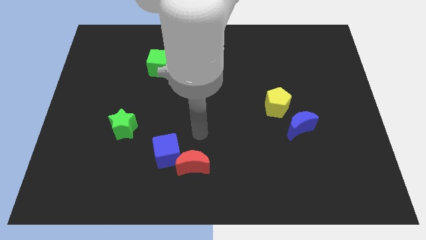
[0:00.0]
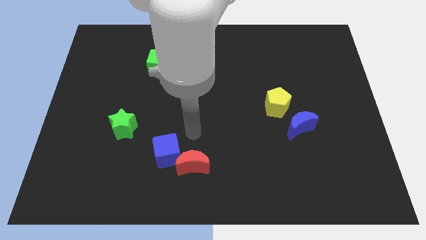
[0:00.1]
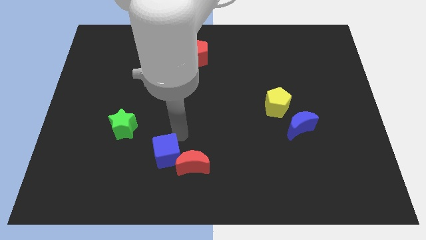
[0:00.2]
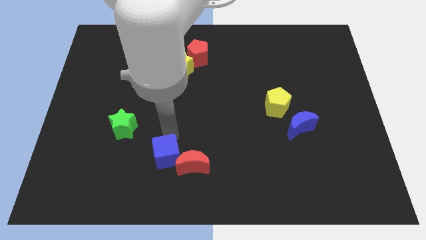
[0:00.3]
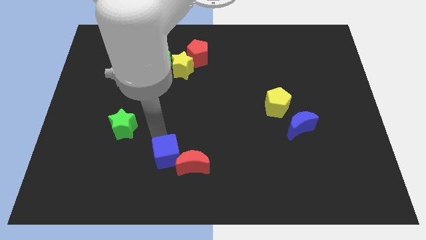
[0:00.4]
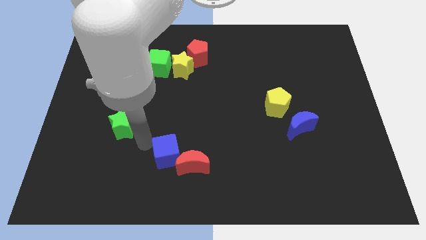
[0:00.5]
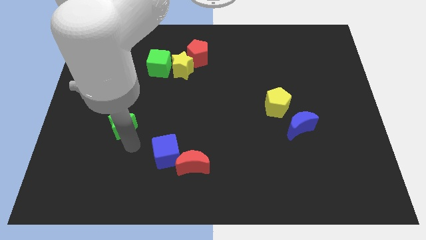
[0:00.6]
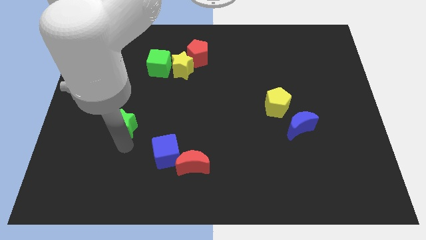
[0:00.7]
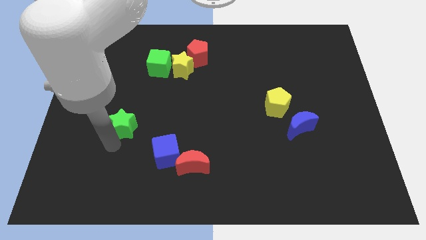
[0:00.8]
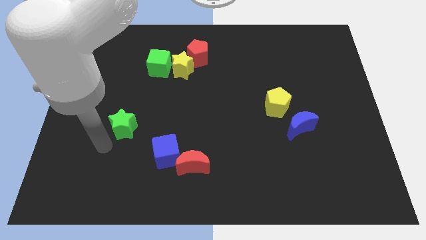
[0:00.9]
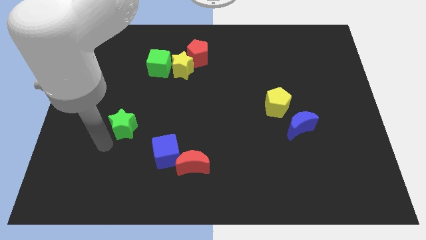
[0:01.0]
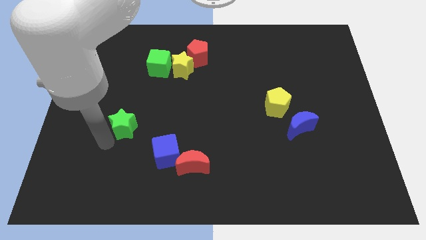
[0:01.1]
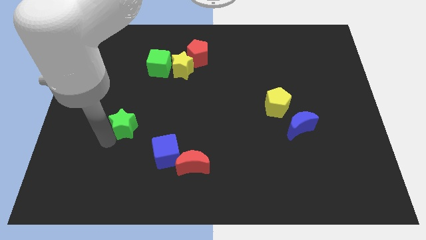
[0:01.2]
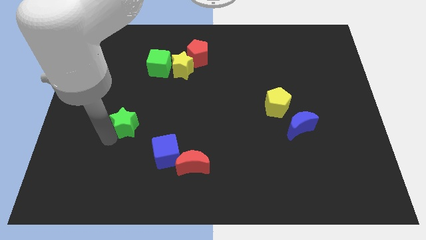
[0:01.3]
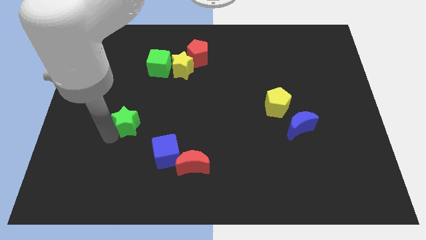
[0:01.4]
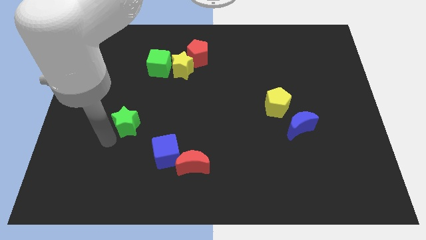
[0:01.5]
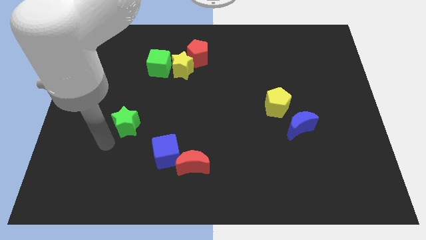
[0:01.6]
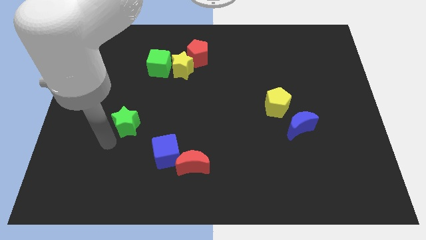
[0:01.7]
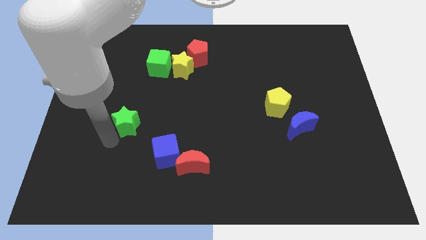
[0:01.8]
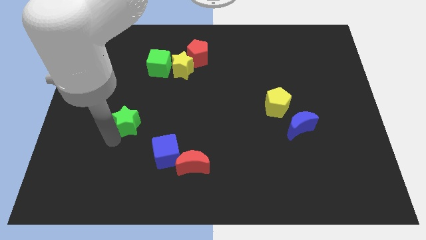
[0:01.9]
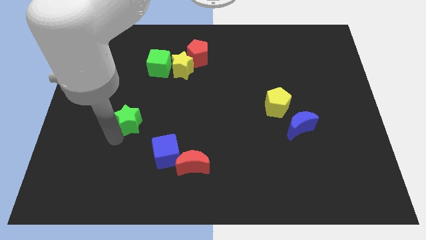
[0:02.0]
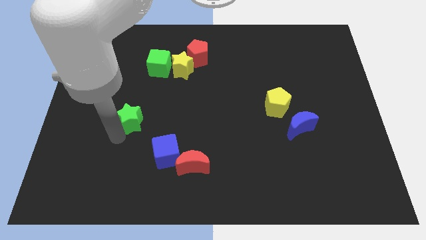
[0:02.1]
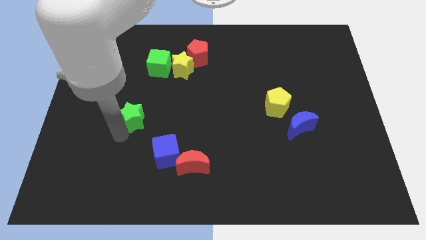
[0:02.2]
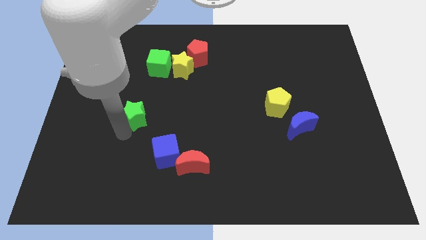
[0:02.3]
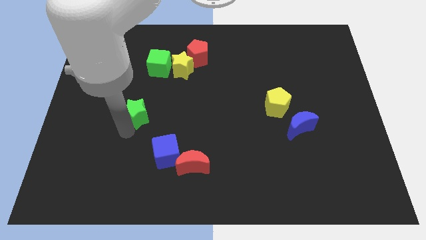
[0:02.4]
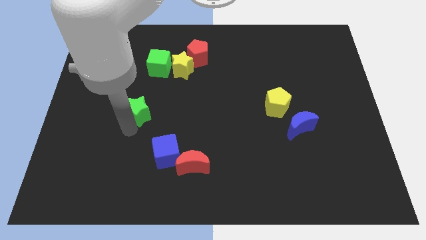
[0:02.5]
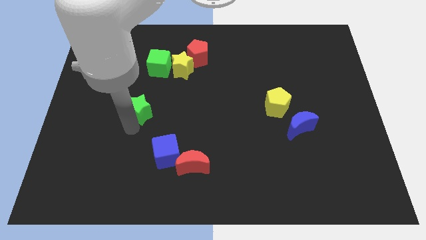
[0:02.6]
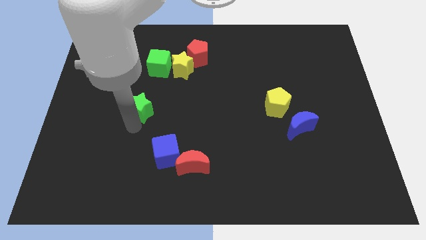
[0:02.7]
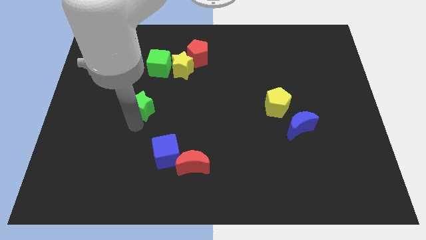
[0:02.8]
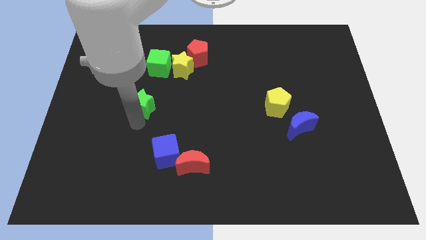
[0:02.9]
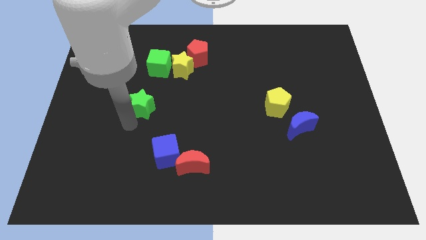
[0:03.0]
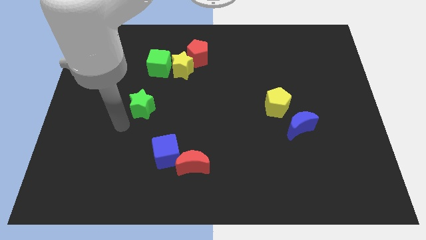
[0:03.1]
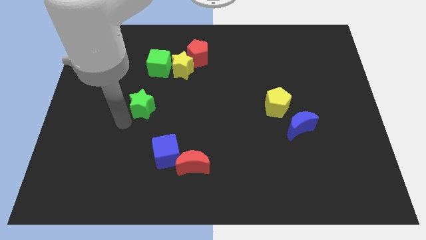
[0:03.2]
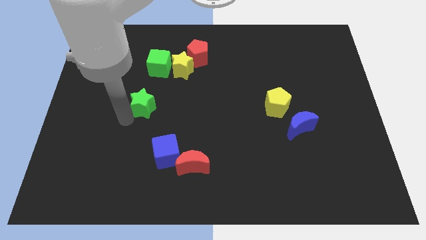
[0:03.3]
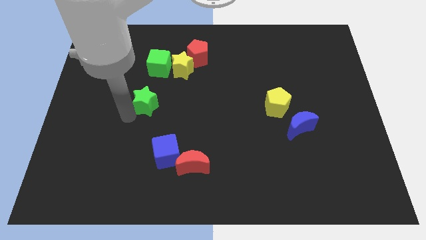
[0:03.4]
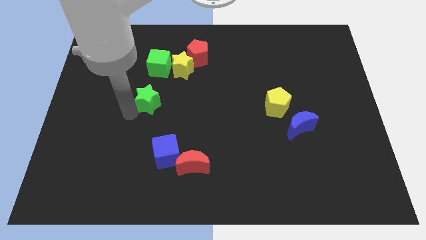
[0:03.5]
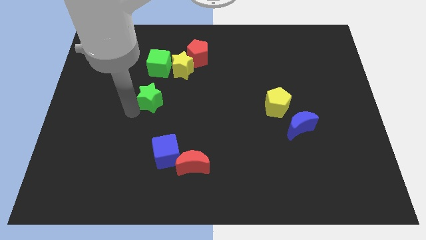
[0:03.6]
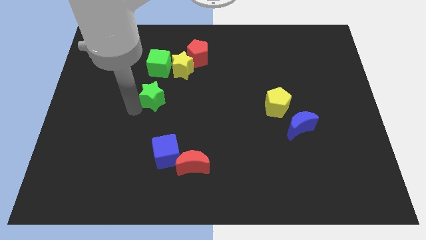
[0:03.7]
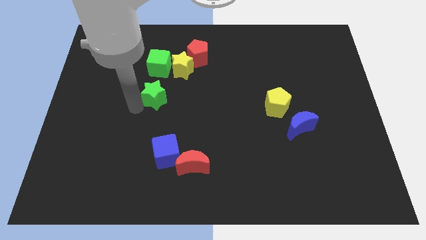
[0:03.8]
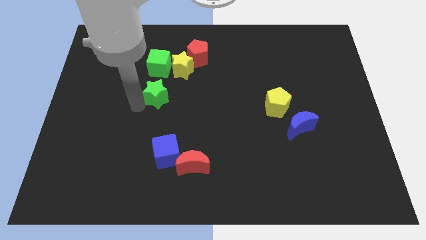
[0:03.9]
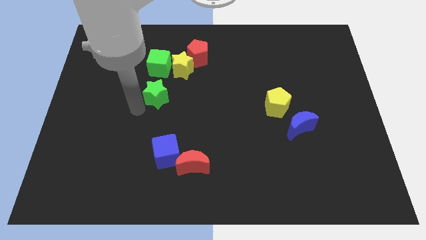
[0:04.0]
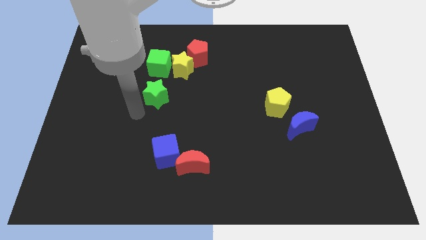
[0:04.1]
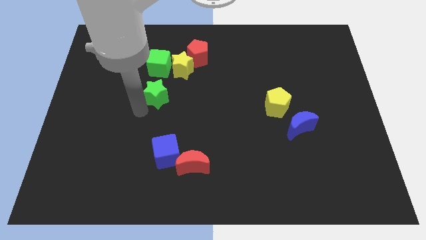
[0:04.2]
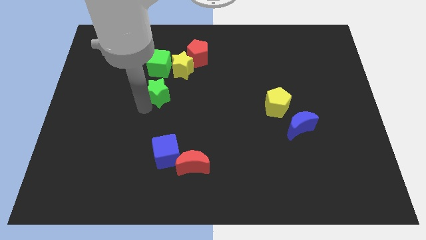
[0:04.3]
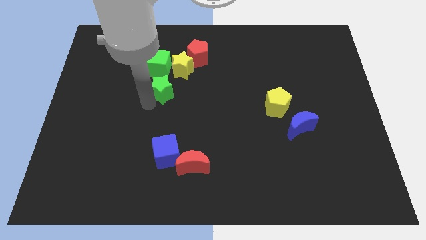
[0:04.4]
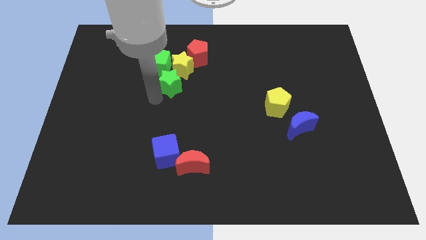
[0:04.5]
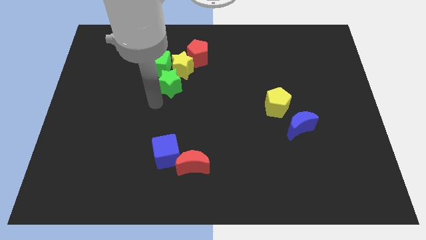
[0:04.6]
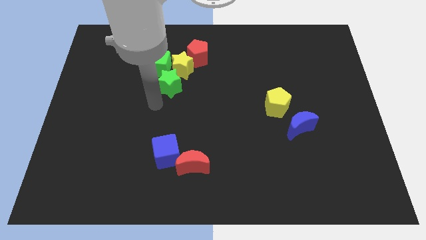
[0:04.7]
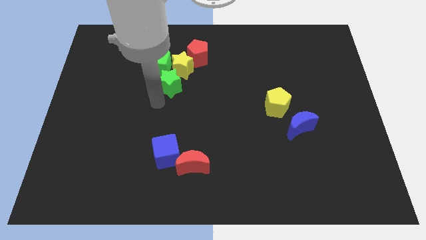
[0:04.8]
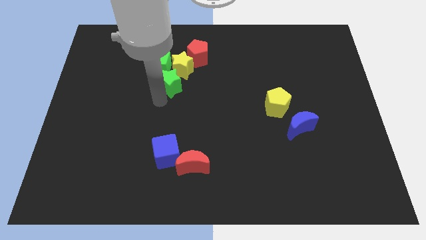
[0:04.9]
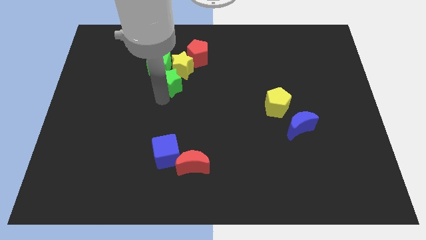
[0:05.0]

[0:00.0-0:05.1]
slide the green star next to the yellow star

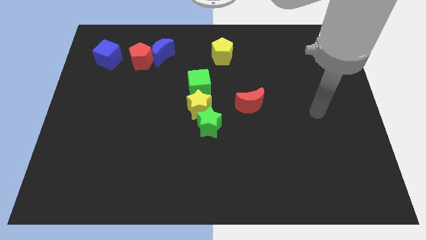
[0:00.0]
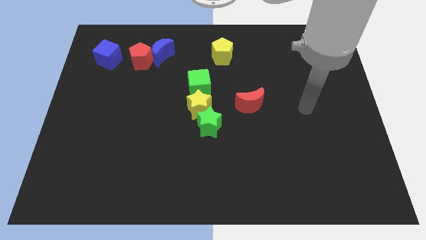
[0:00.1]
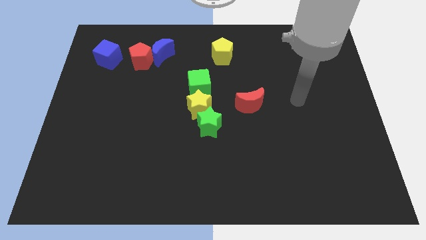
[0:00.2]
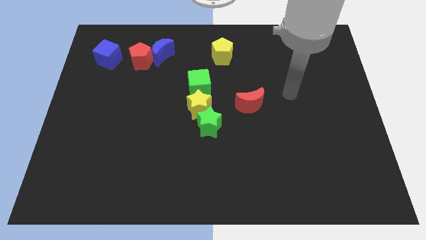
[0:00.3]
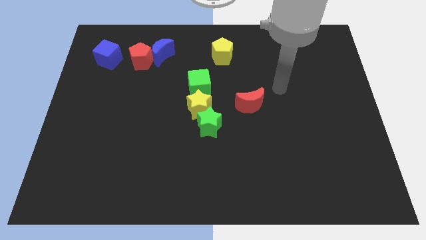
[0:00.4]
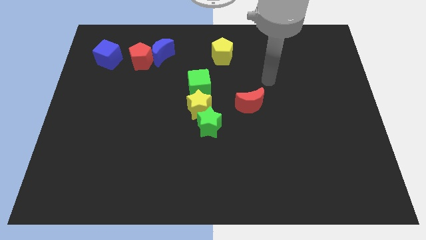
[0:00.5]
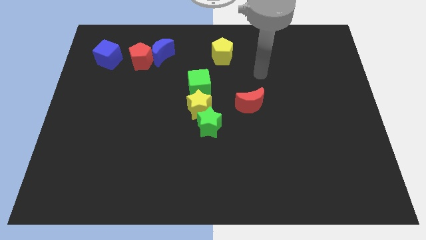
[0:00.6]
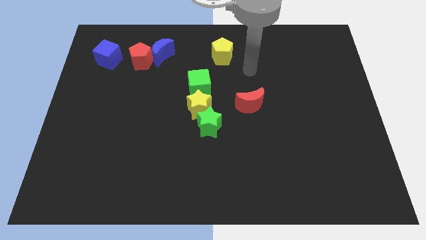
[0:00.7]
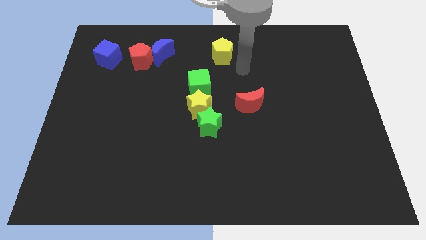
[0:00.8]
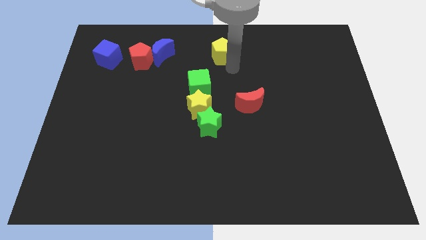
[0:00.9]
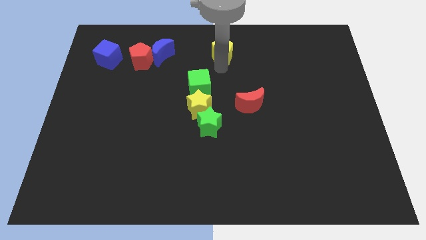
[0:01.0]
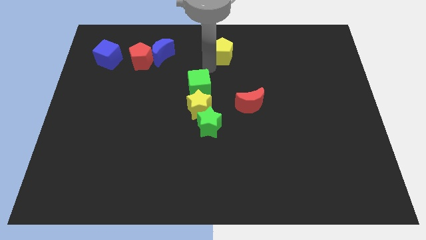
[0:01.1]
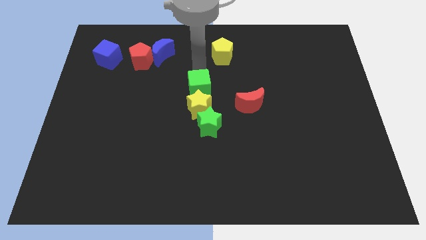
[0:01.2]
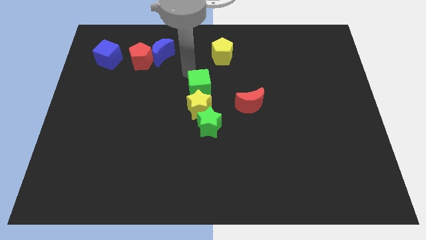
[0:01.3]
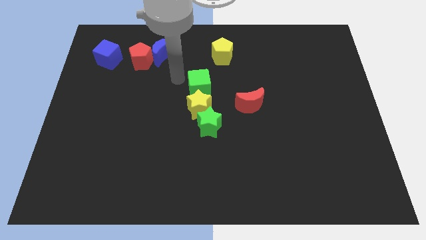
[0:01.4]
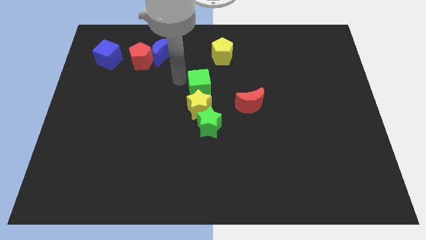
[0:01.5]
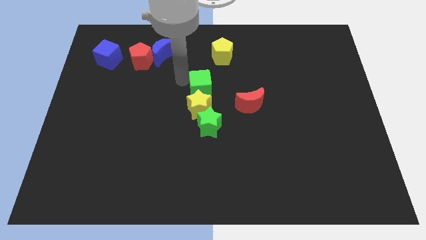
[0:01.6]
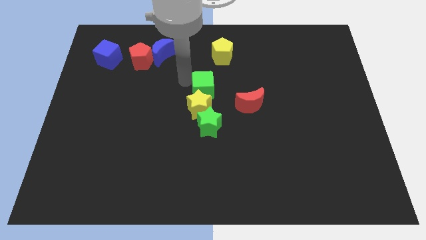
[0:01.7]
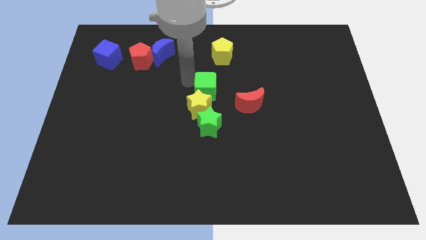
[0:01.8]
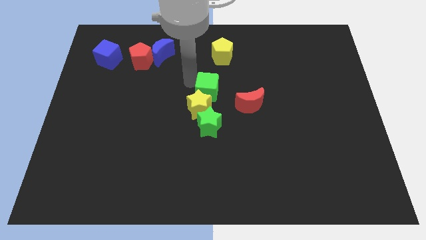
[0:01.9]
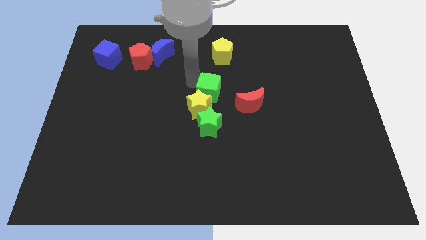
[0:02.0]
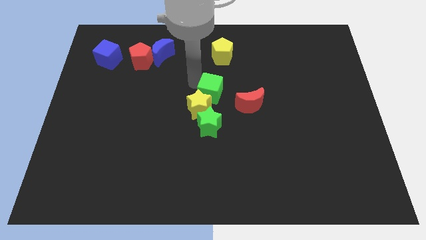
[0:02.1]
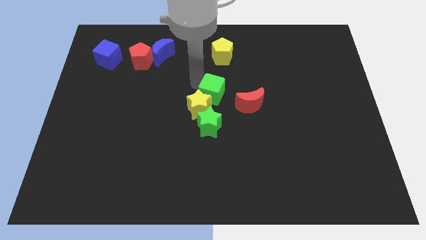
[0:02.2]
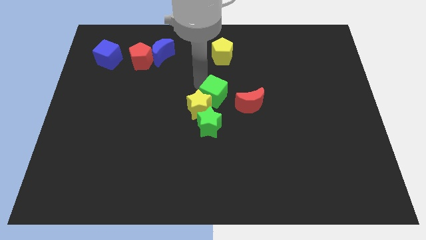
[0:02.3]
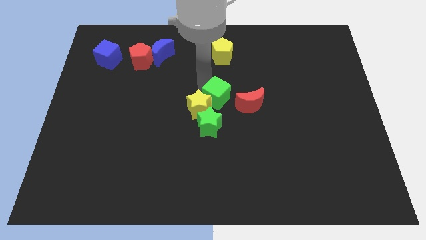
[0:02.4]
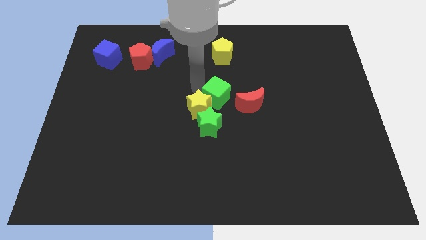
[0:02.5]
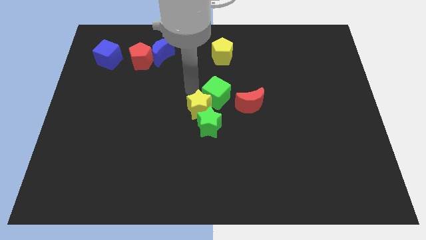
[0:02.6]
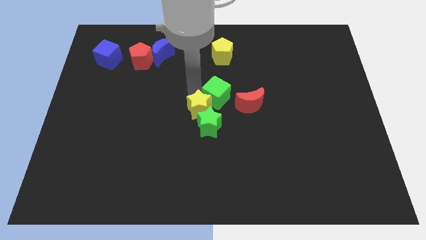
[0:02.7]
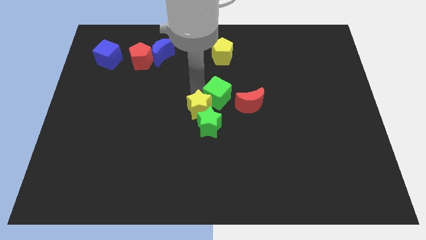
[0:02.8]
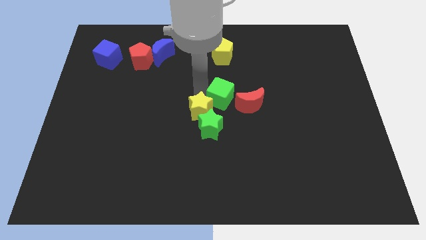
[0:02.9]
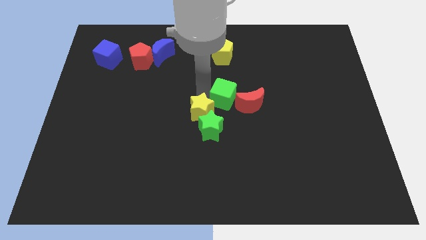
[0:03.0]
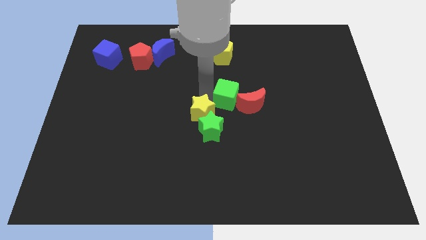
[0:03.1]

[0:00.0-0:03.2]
slide the green cube towards the red moon
